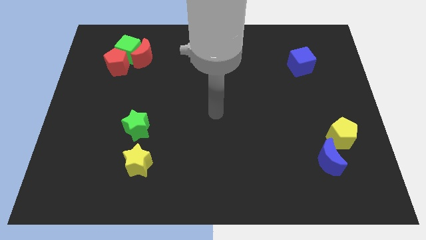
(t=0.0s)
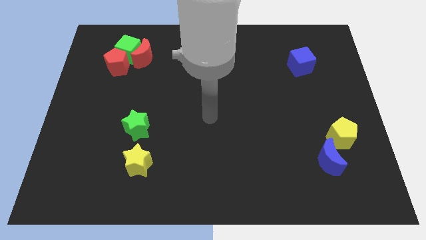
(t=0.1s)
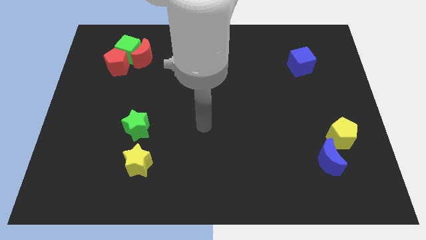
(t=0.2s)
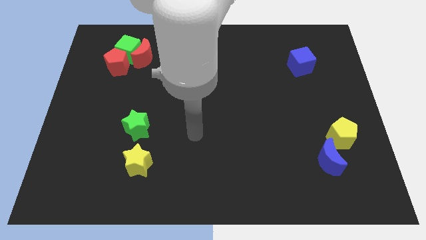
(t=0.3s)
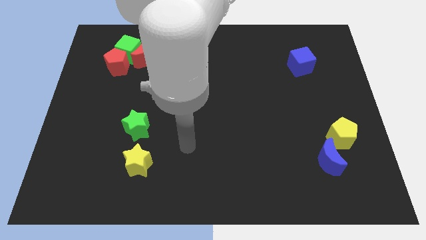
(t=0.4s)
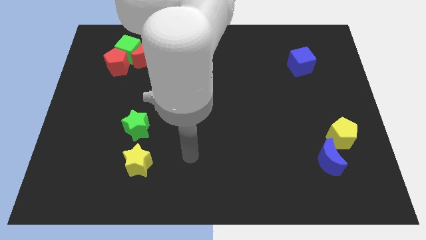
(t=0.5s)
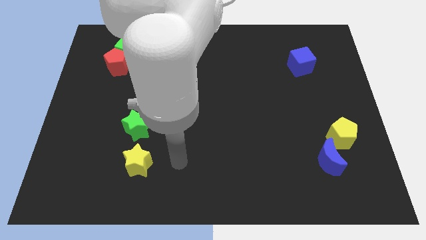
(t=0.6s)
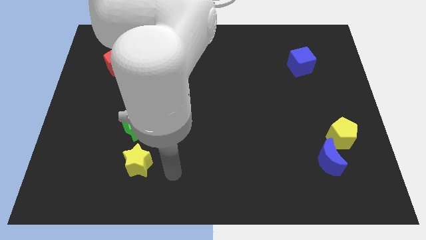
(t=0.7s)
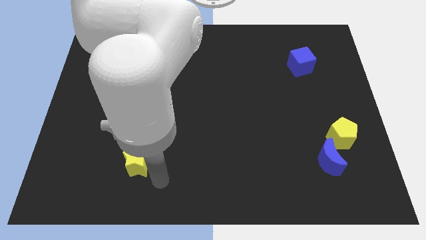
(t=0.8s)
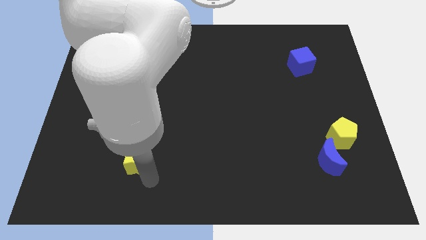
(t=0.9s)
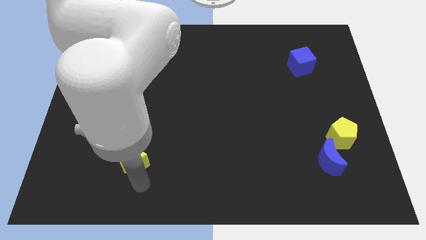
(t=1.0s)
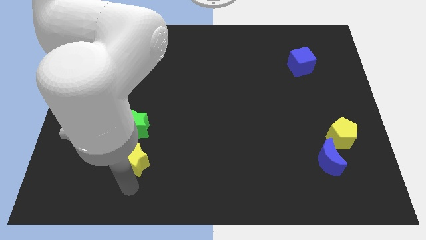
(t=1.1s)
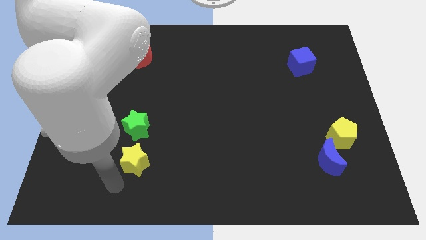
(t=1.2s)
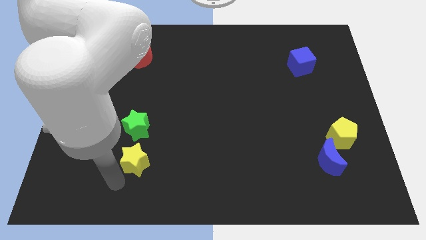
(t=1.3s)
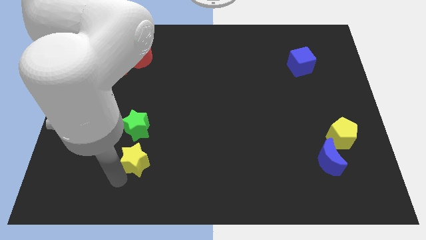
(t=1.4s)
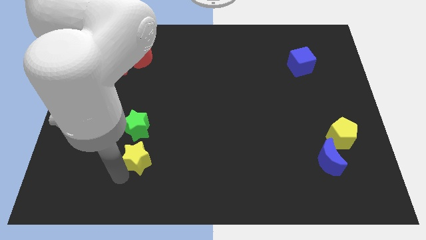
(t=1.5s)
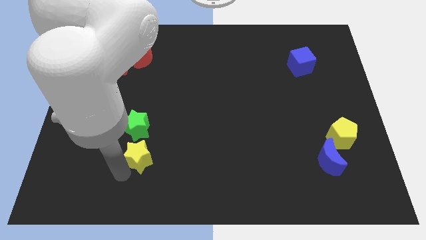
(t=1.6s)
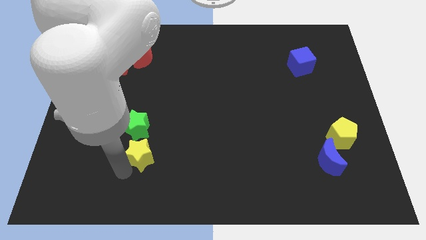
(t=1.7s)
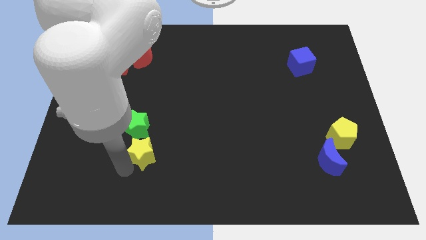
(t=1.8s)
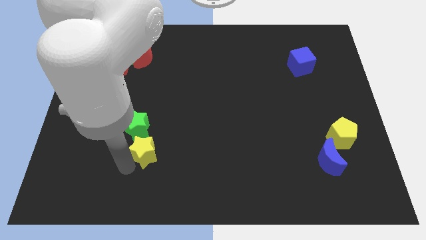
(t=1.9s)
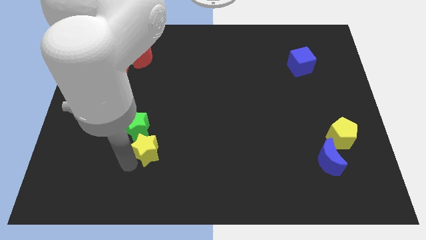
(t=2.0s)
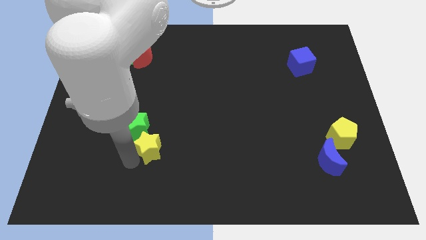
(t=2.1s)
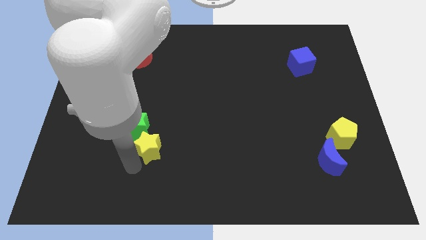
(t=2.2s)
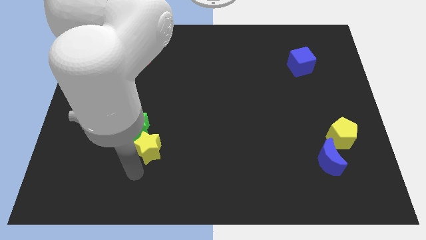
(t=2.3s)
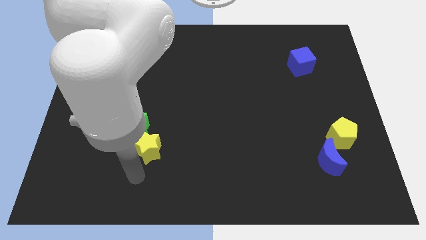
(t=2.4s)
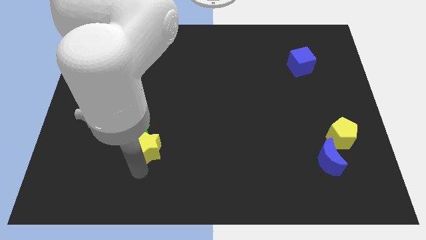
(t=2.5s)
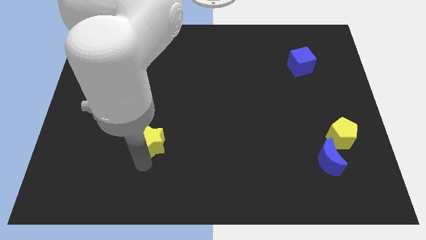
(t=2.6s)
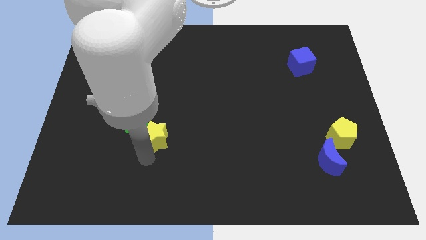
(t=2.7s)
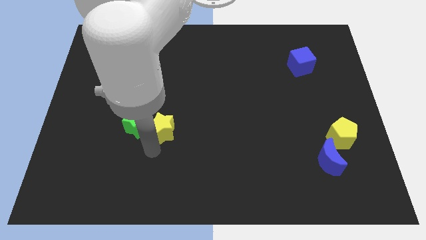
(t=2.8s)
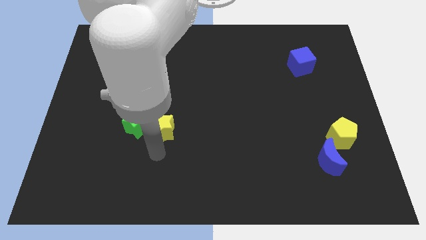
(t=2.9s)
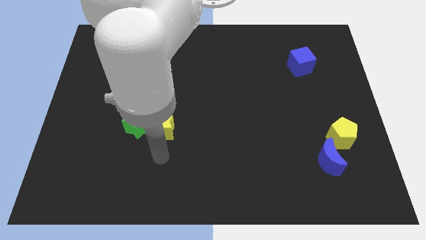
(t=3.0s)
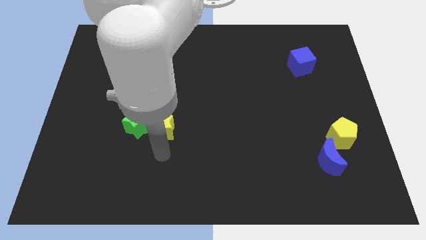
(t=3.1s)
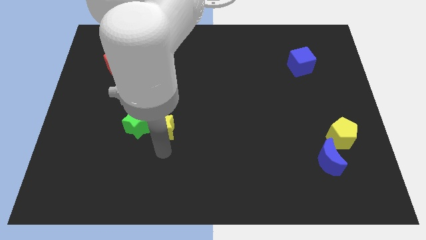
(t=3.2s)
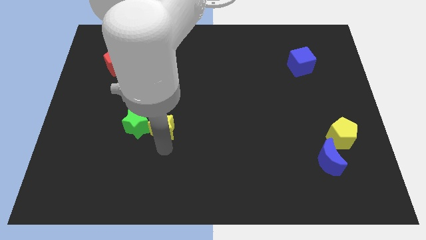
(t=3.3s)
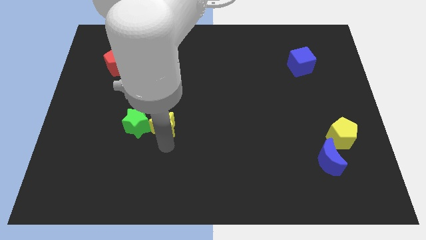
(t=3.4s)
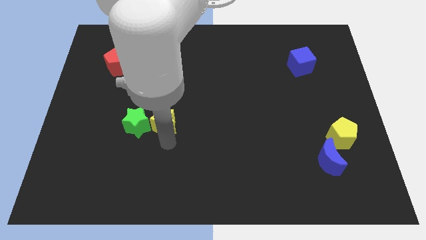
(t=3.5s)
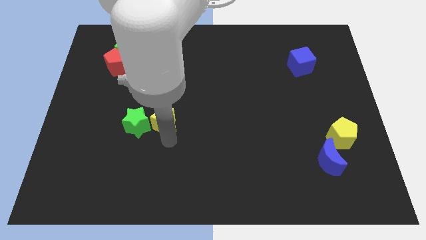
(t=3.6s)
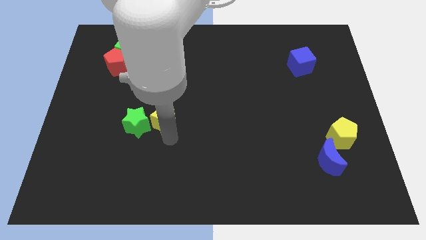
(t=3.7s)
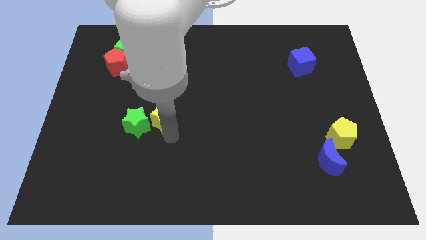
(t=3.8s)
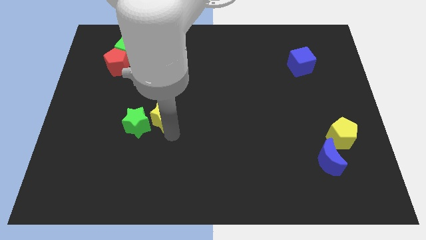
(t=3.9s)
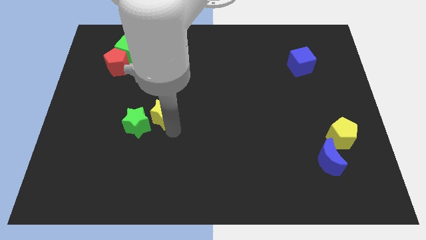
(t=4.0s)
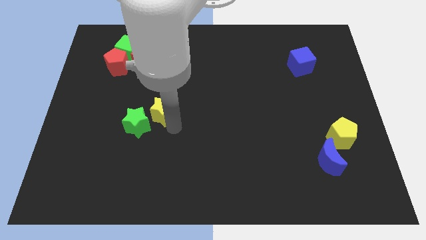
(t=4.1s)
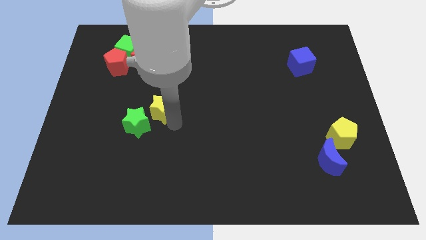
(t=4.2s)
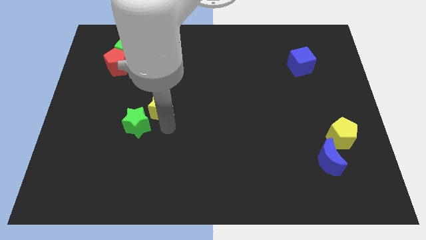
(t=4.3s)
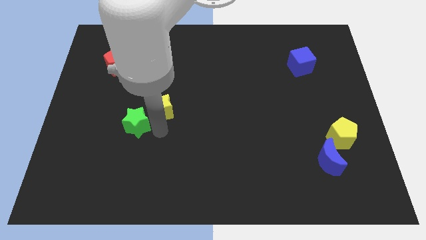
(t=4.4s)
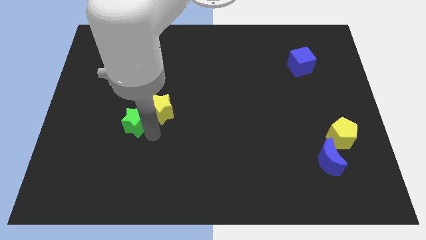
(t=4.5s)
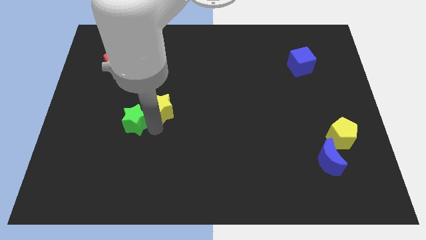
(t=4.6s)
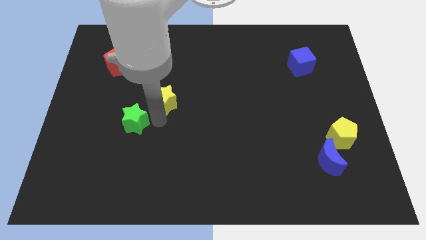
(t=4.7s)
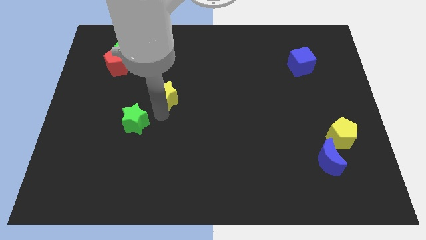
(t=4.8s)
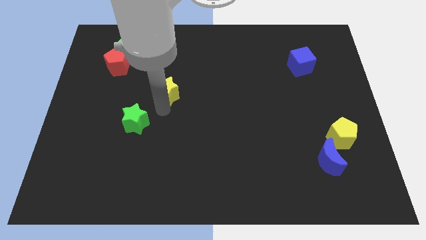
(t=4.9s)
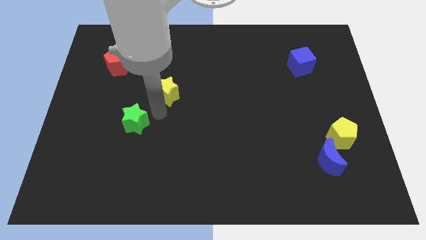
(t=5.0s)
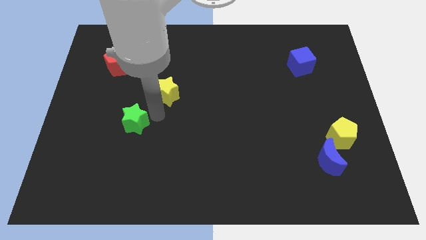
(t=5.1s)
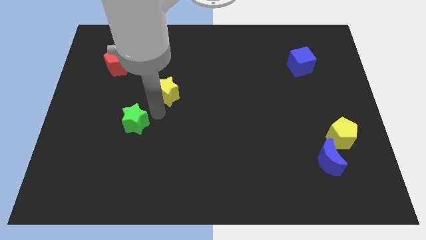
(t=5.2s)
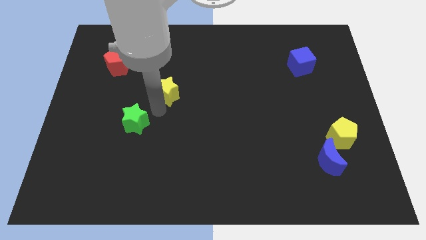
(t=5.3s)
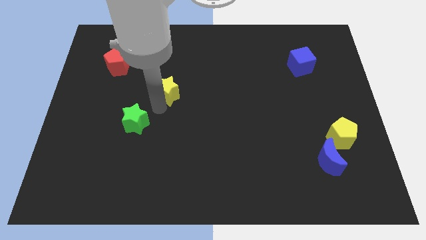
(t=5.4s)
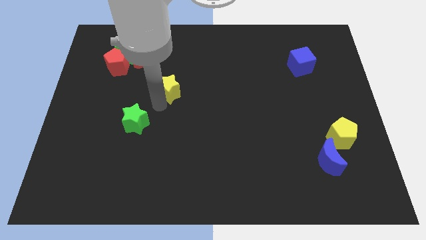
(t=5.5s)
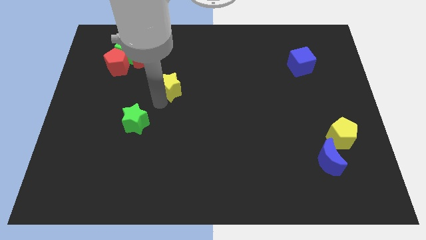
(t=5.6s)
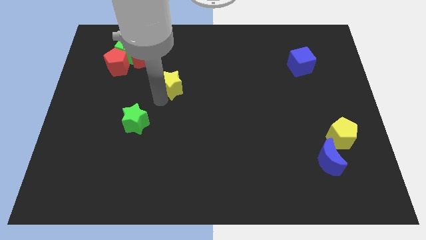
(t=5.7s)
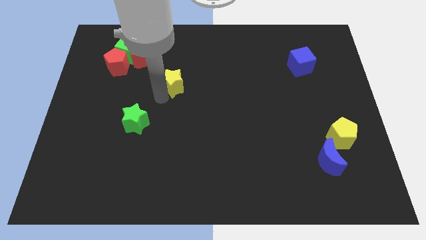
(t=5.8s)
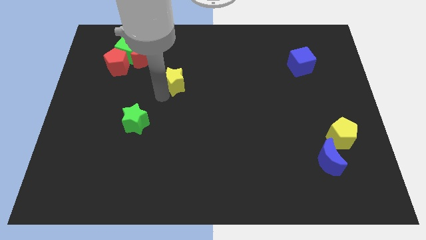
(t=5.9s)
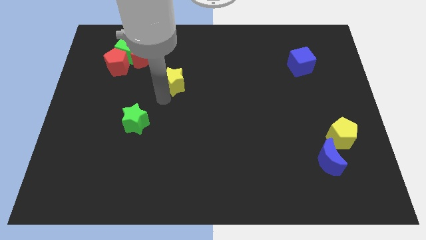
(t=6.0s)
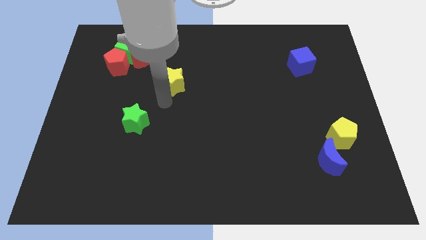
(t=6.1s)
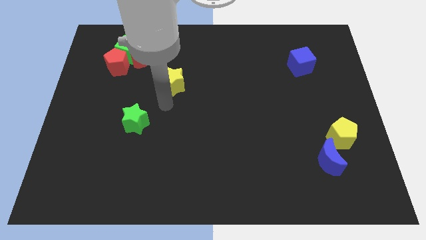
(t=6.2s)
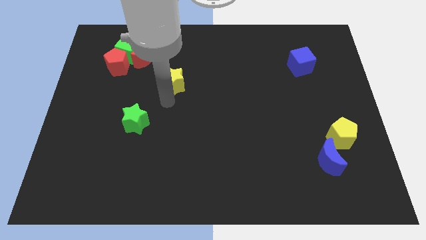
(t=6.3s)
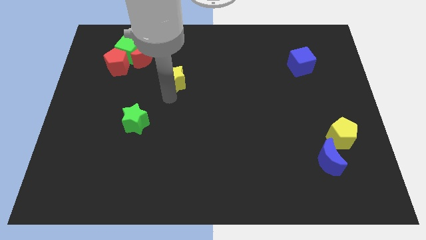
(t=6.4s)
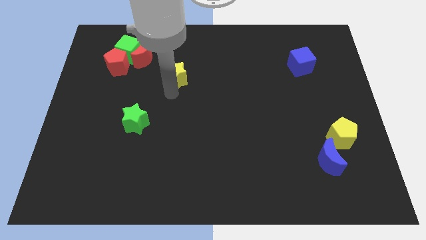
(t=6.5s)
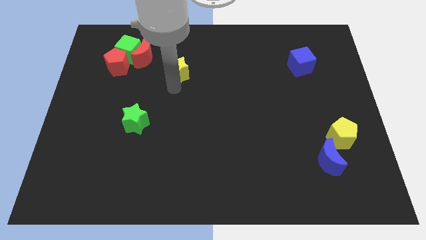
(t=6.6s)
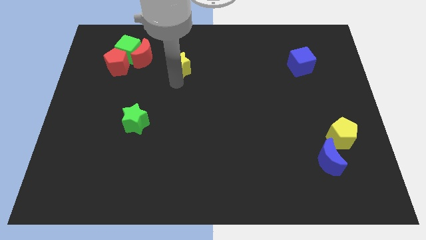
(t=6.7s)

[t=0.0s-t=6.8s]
move the yellow star to the right of the red moon
